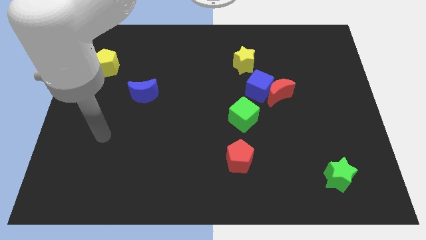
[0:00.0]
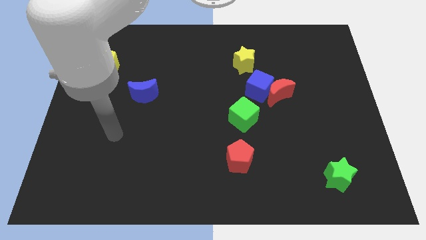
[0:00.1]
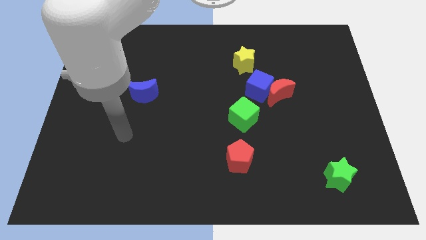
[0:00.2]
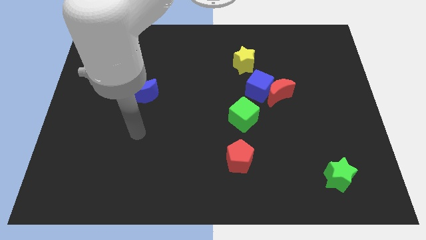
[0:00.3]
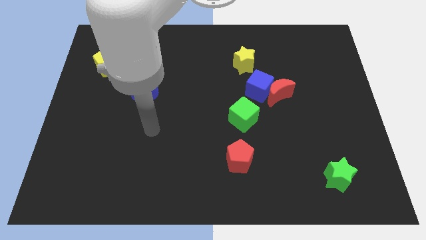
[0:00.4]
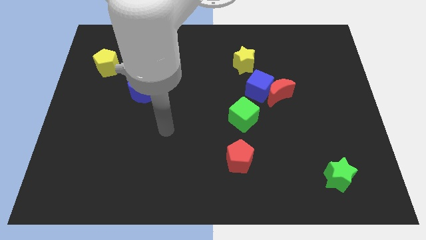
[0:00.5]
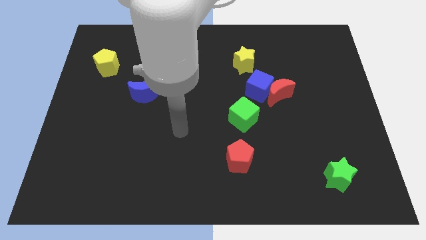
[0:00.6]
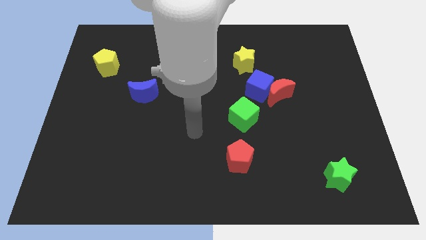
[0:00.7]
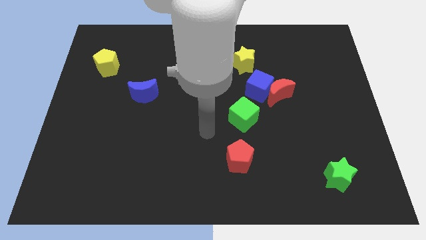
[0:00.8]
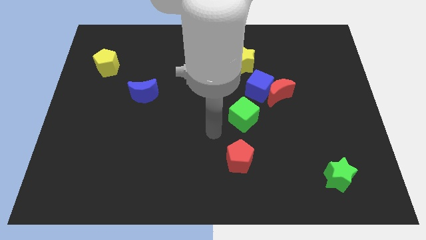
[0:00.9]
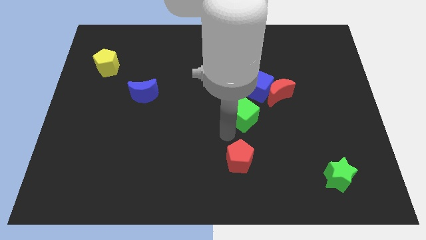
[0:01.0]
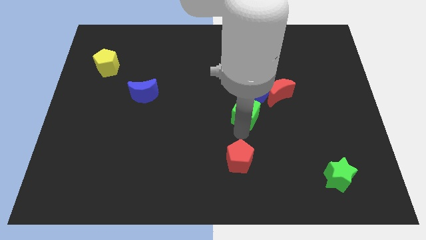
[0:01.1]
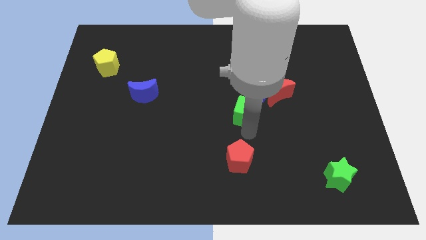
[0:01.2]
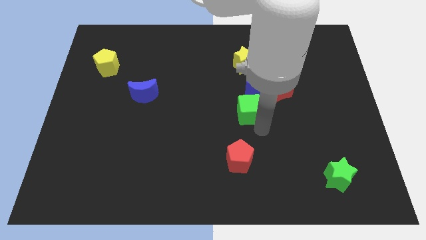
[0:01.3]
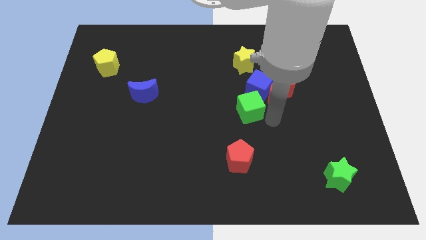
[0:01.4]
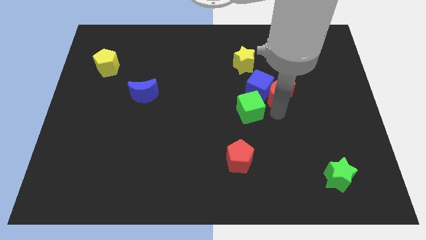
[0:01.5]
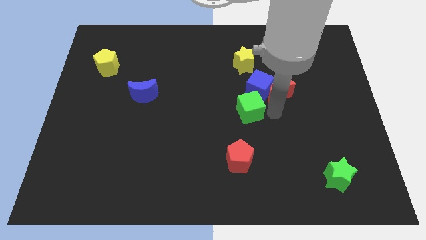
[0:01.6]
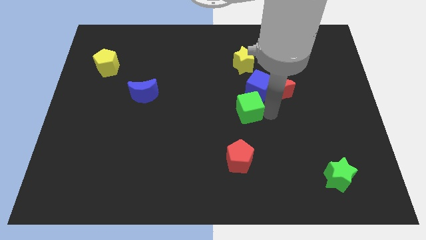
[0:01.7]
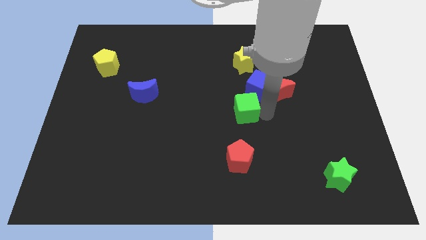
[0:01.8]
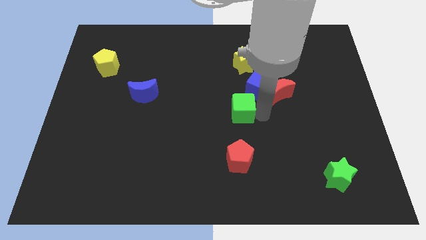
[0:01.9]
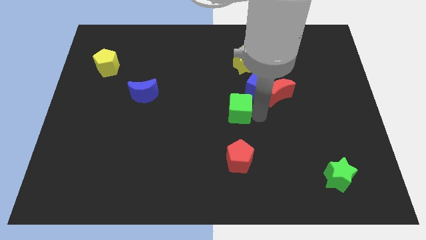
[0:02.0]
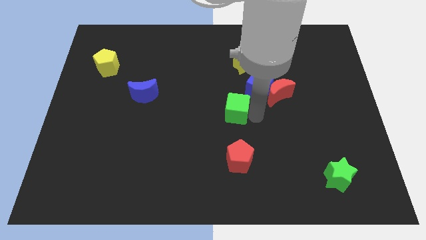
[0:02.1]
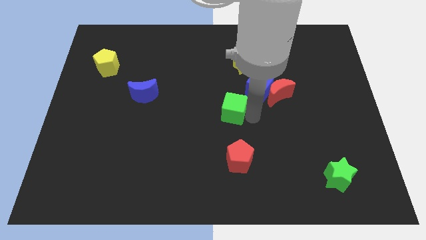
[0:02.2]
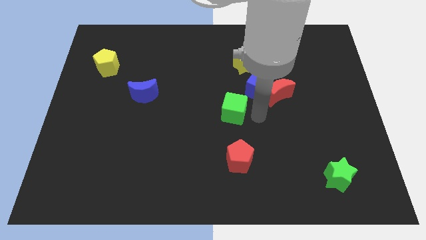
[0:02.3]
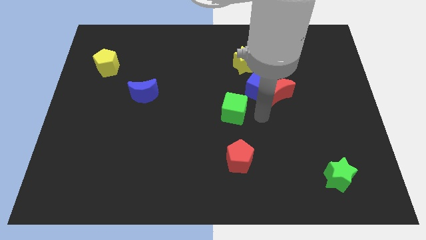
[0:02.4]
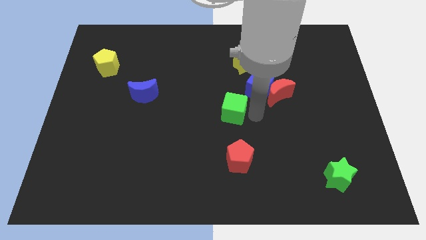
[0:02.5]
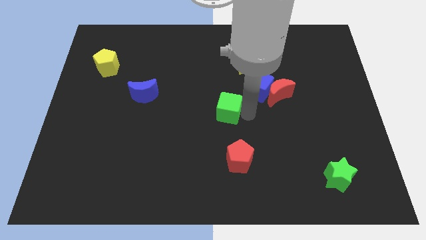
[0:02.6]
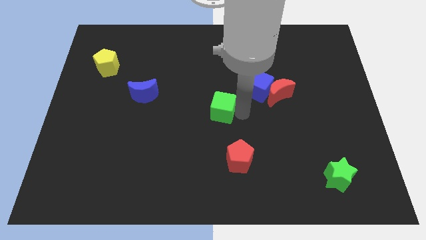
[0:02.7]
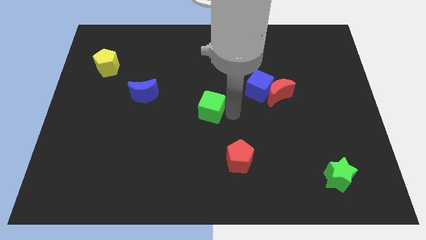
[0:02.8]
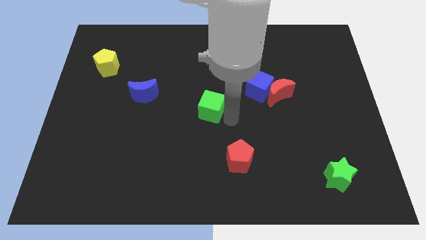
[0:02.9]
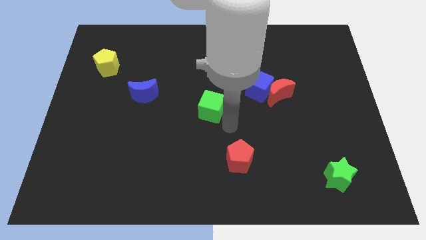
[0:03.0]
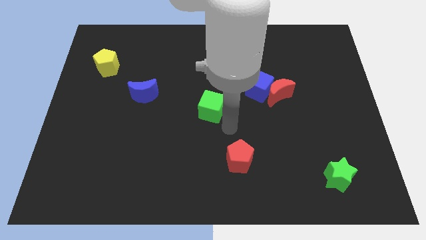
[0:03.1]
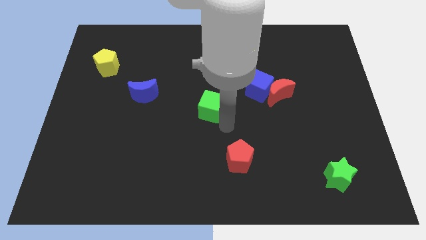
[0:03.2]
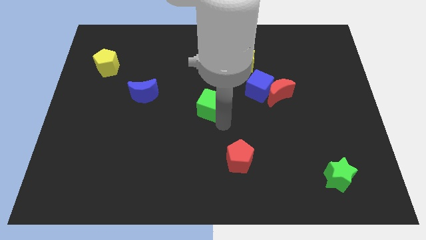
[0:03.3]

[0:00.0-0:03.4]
move the green cube a bit upwards and to the left diagonally

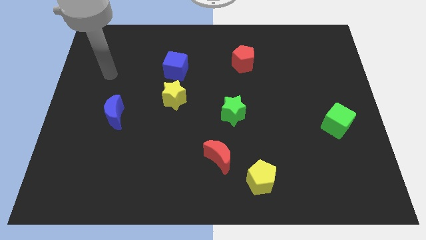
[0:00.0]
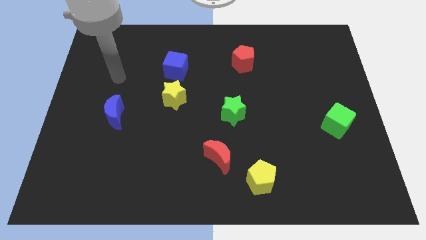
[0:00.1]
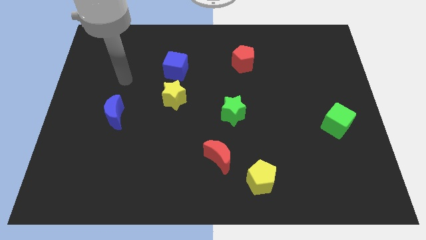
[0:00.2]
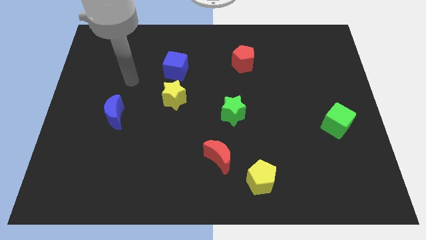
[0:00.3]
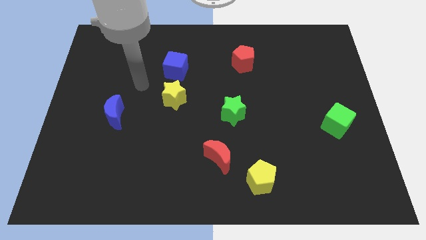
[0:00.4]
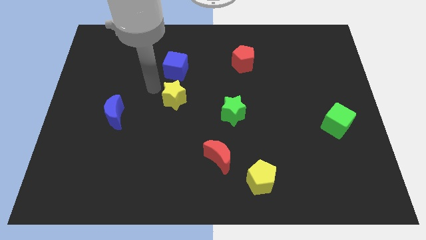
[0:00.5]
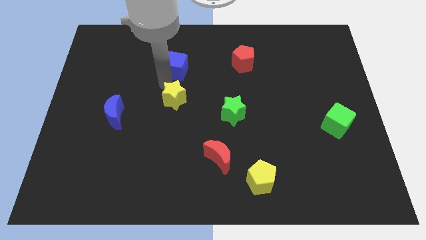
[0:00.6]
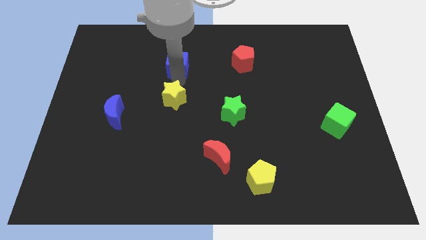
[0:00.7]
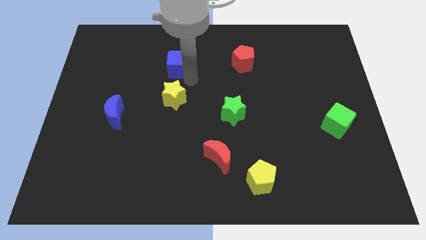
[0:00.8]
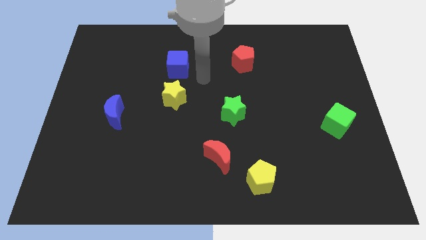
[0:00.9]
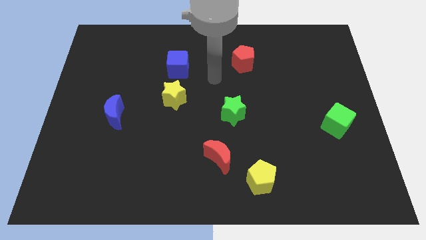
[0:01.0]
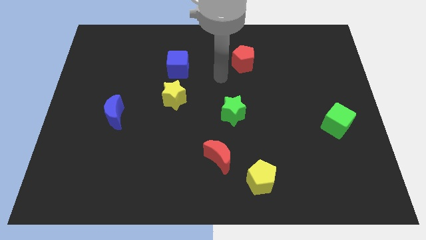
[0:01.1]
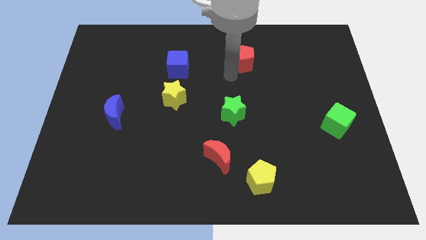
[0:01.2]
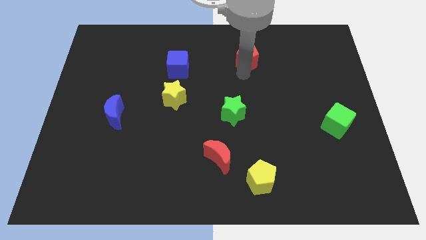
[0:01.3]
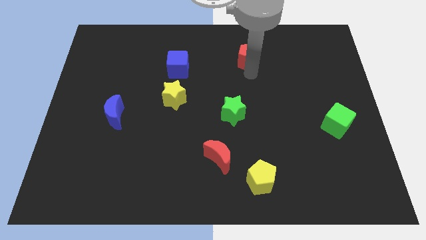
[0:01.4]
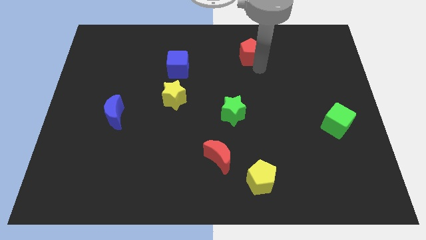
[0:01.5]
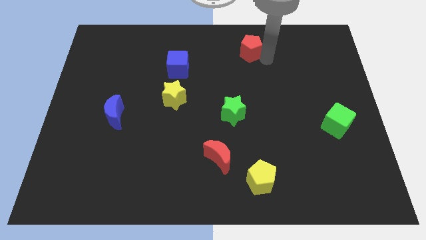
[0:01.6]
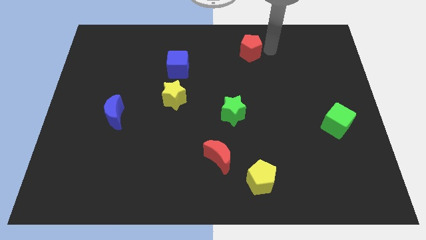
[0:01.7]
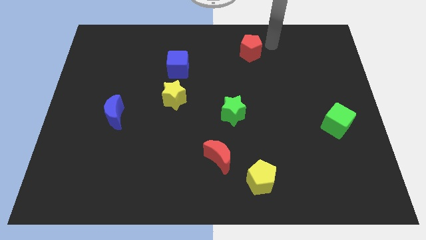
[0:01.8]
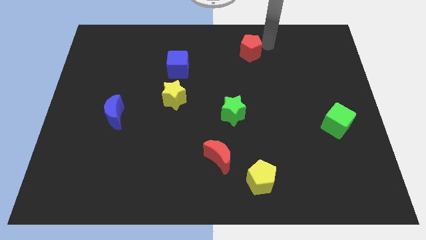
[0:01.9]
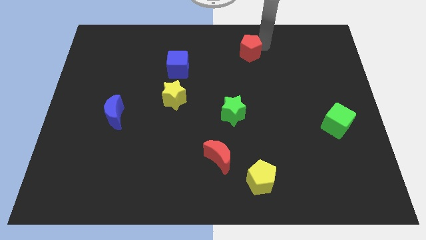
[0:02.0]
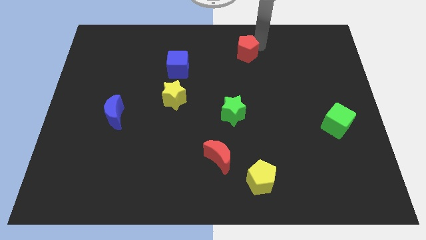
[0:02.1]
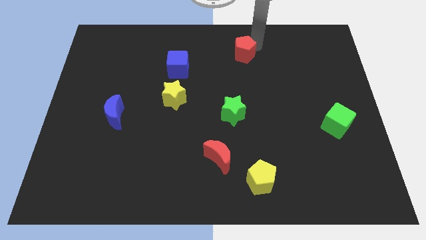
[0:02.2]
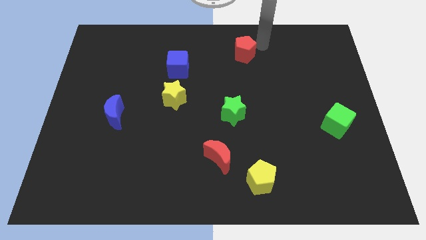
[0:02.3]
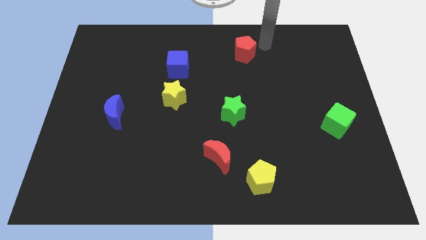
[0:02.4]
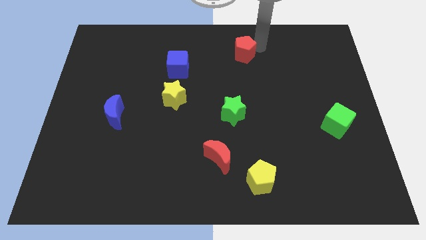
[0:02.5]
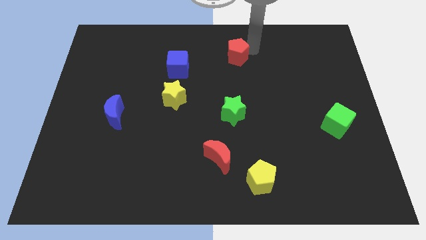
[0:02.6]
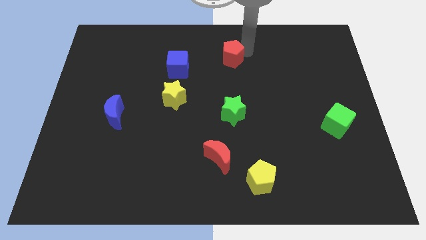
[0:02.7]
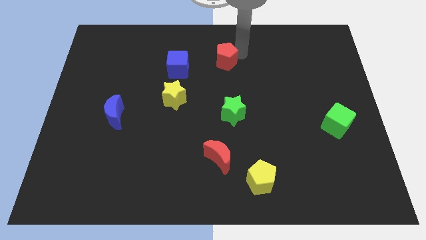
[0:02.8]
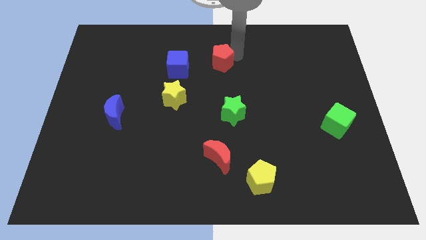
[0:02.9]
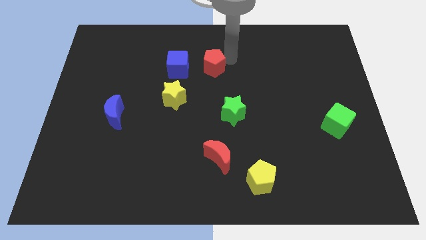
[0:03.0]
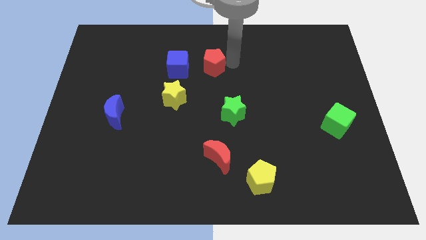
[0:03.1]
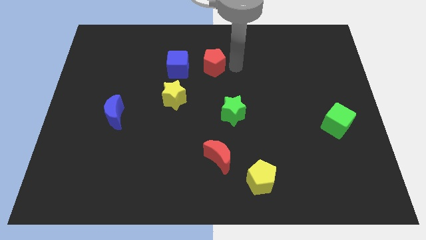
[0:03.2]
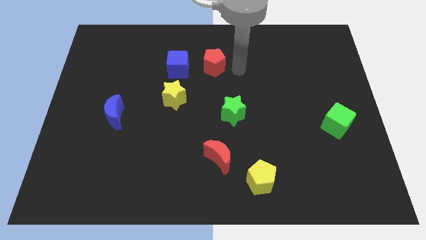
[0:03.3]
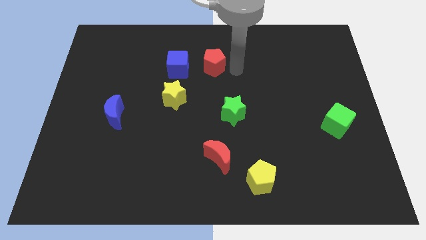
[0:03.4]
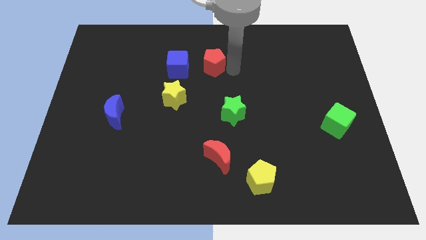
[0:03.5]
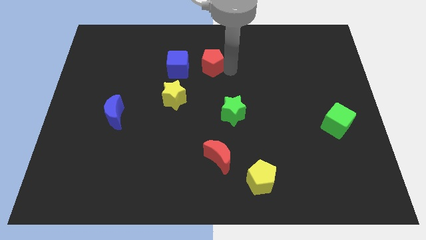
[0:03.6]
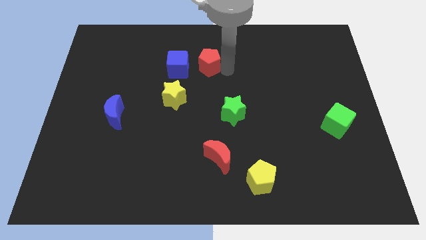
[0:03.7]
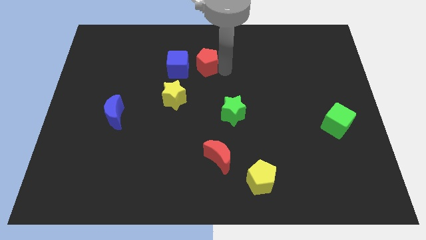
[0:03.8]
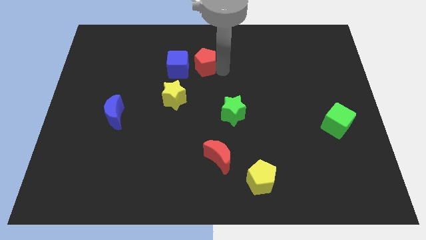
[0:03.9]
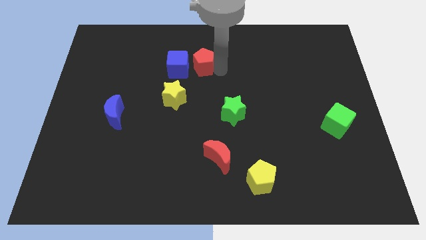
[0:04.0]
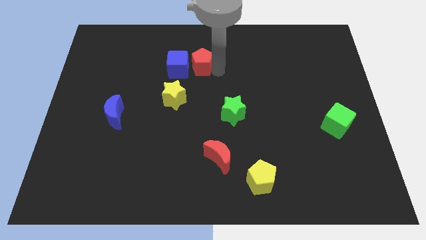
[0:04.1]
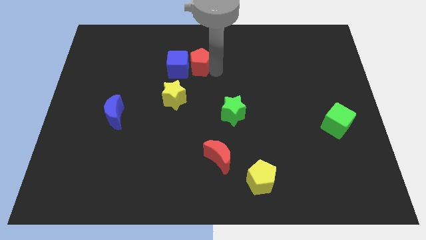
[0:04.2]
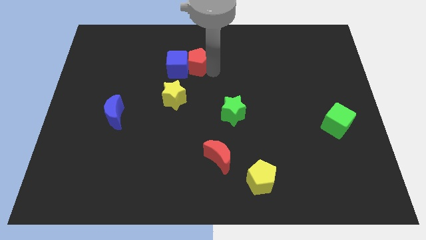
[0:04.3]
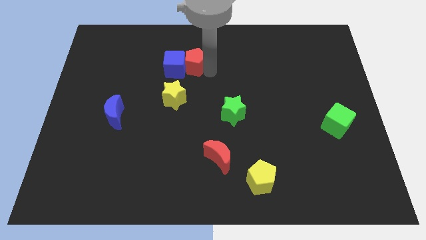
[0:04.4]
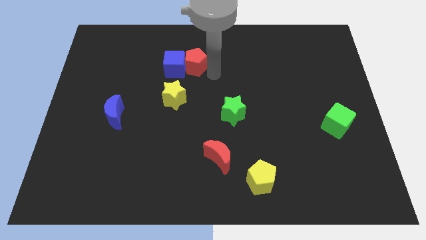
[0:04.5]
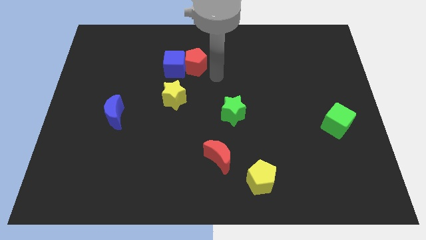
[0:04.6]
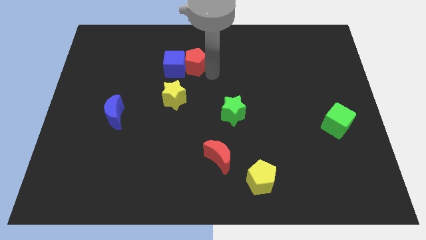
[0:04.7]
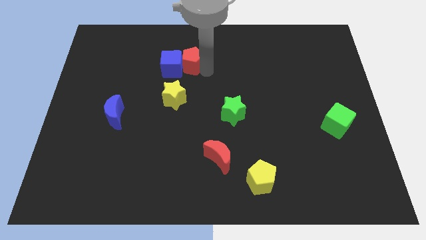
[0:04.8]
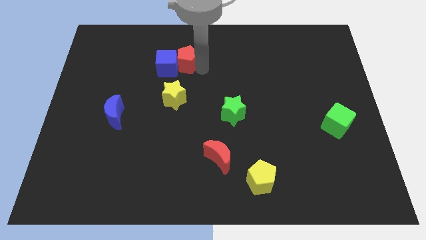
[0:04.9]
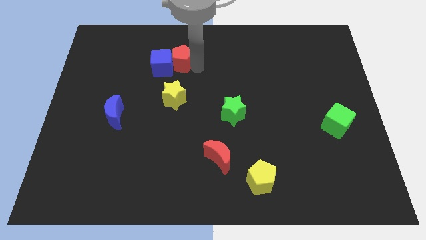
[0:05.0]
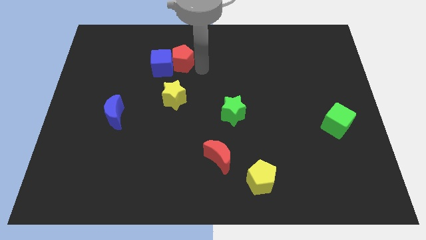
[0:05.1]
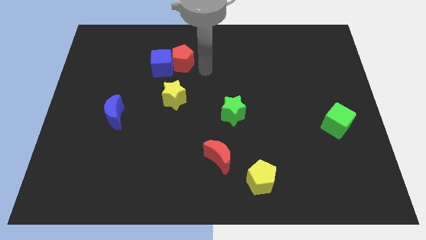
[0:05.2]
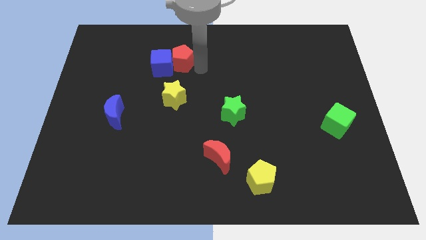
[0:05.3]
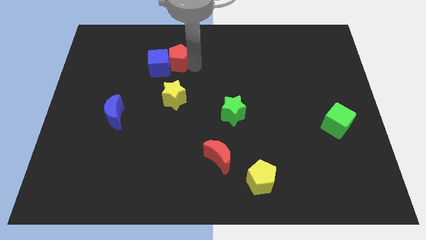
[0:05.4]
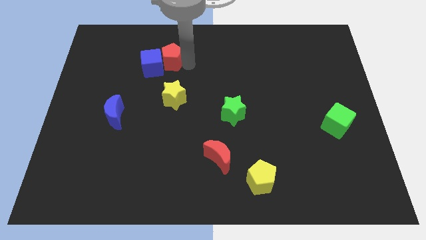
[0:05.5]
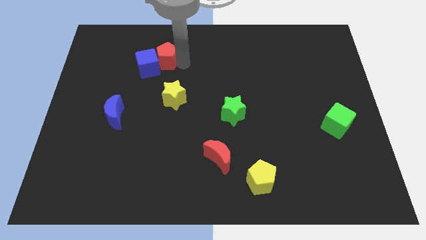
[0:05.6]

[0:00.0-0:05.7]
slide the red pentagon to the left
